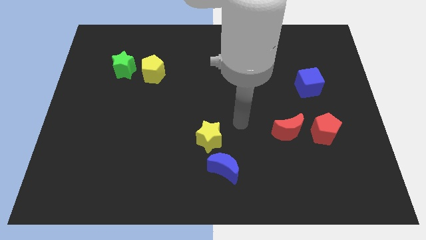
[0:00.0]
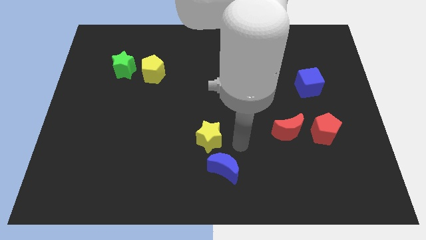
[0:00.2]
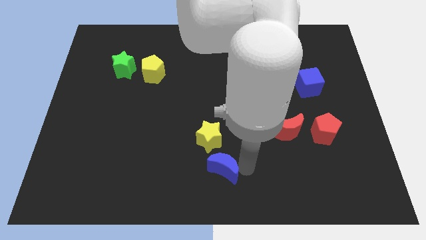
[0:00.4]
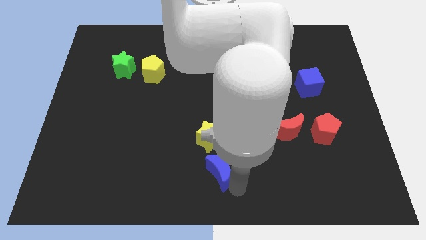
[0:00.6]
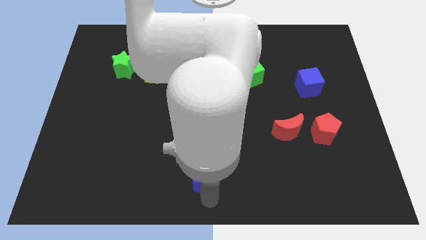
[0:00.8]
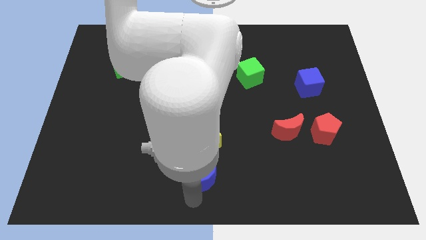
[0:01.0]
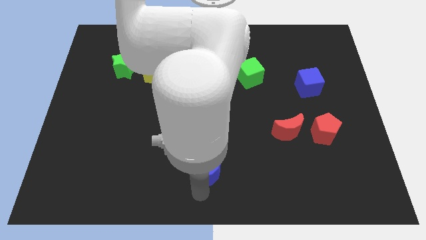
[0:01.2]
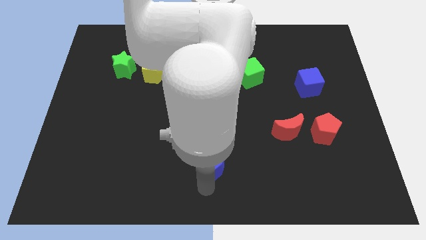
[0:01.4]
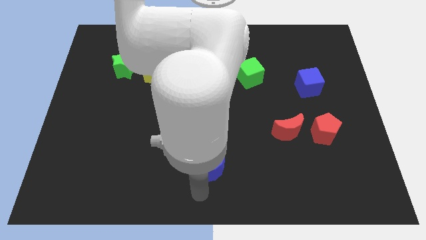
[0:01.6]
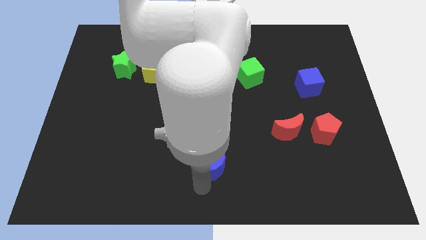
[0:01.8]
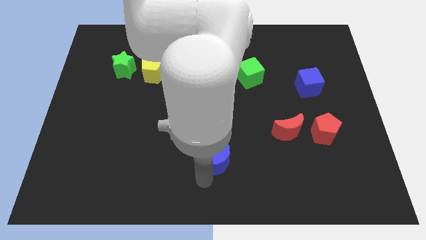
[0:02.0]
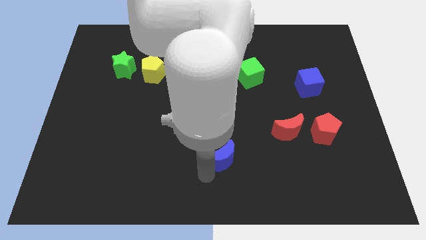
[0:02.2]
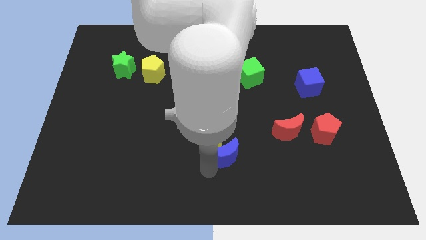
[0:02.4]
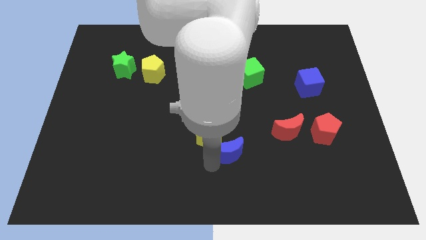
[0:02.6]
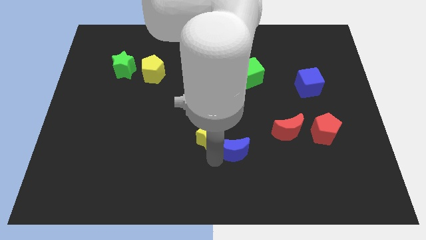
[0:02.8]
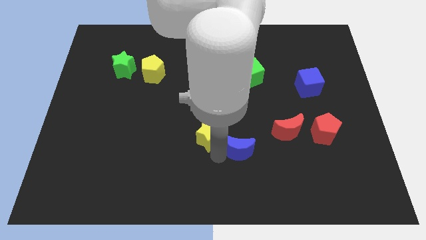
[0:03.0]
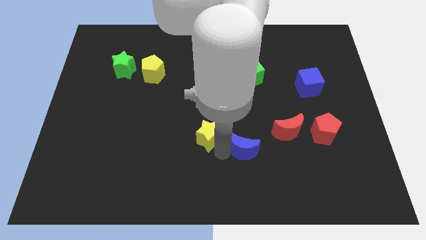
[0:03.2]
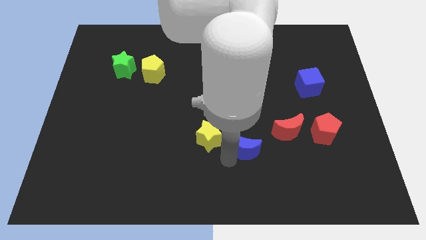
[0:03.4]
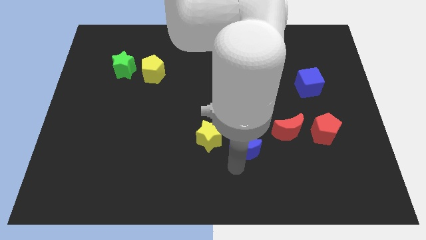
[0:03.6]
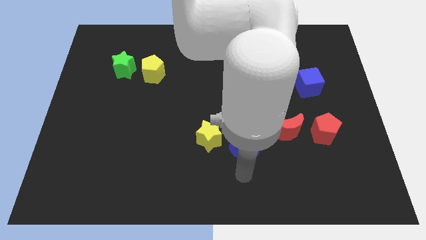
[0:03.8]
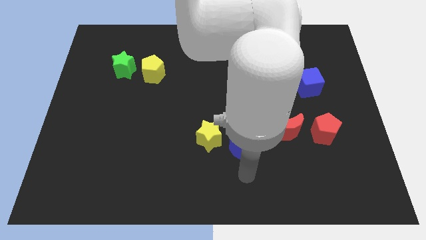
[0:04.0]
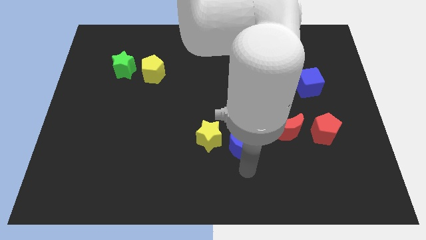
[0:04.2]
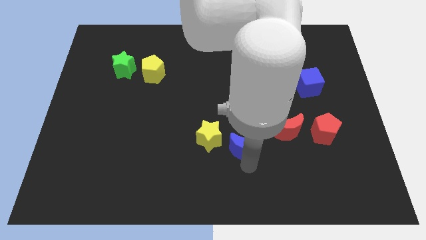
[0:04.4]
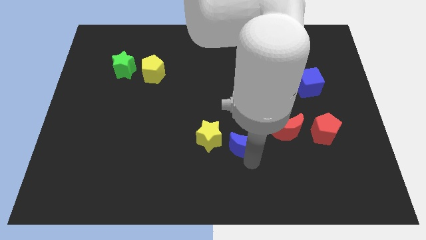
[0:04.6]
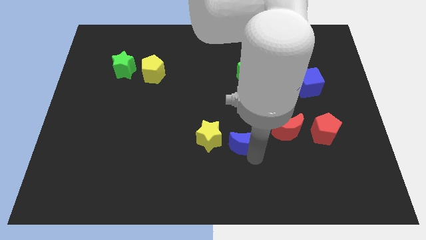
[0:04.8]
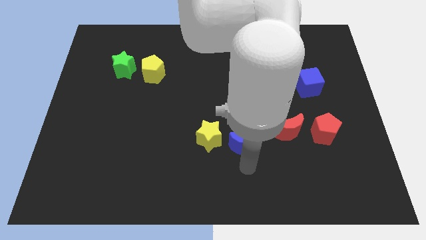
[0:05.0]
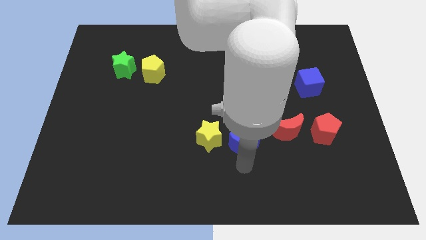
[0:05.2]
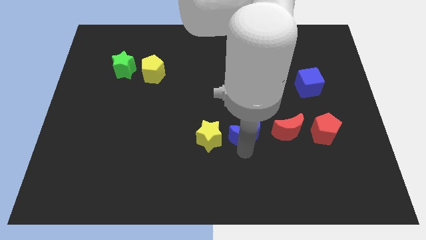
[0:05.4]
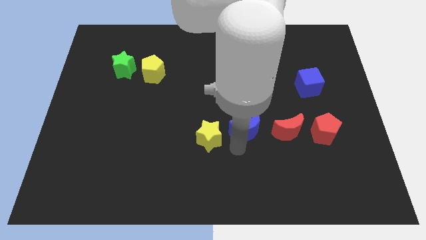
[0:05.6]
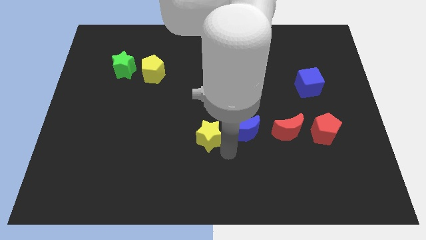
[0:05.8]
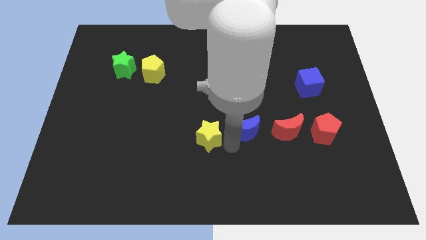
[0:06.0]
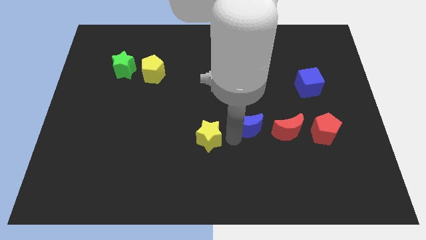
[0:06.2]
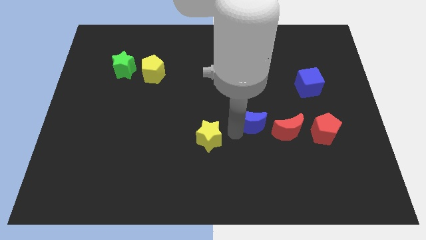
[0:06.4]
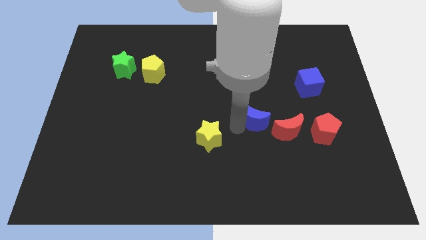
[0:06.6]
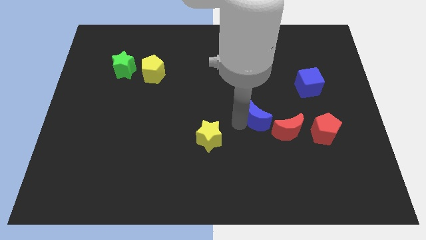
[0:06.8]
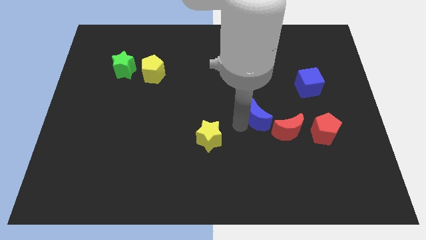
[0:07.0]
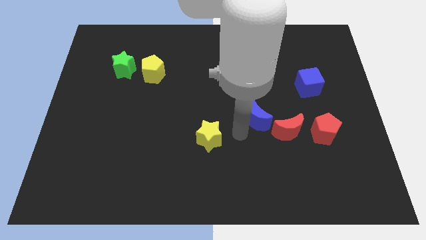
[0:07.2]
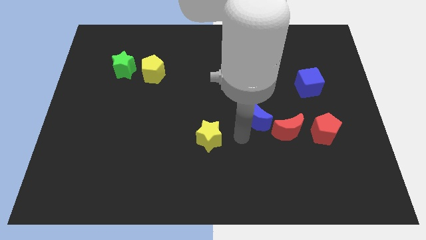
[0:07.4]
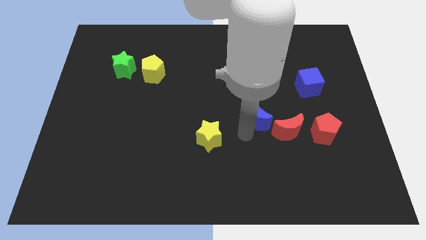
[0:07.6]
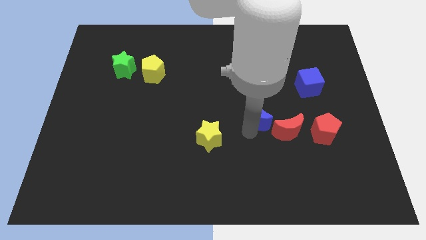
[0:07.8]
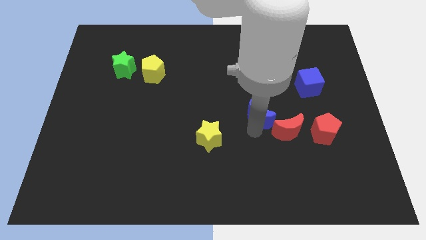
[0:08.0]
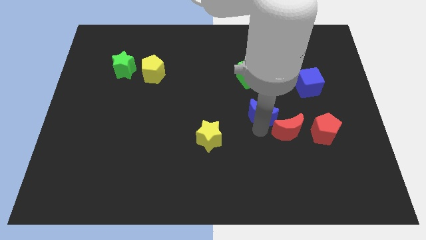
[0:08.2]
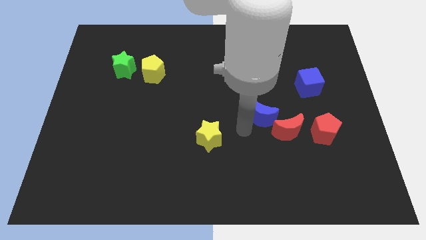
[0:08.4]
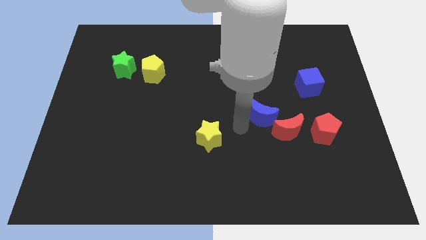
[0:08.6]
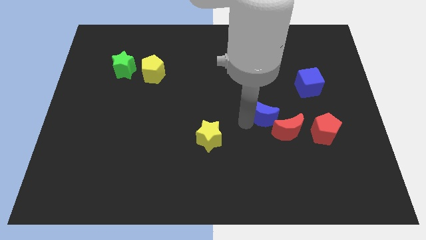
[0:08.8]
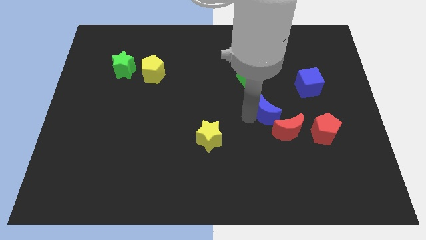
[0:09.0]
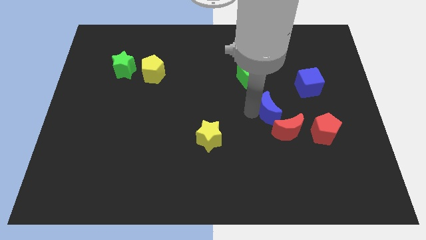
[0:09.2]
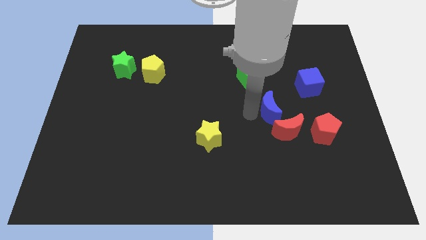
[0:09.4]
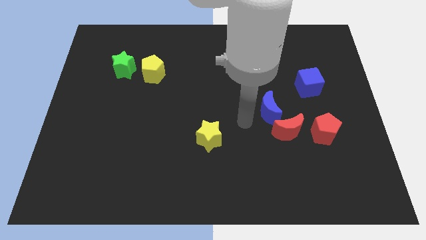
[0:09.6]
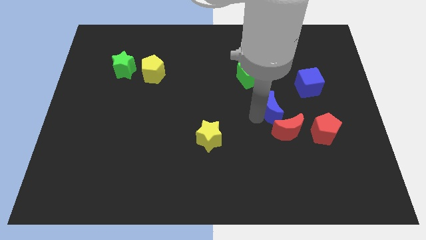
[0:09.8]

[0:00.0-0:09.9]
move the blue moon to the bottom left of the blue cube

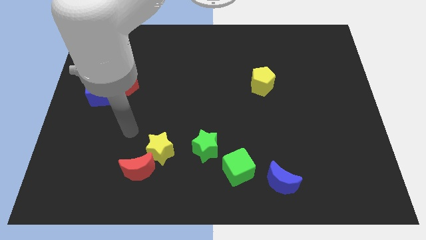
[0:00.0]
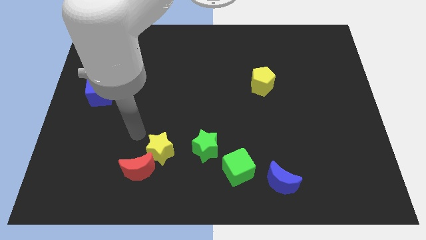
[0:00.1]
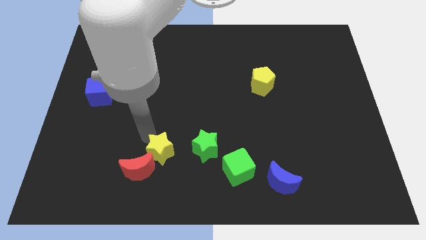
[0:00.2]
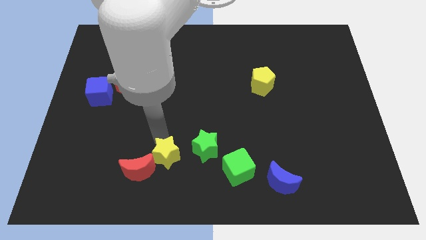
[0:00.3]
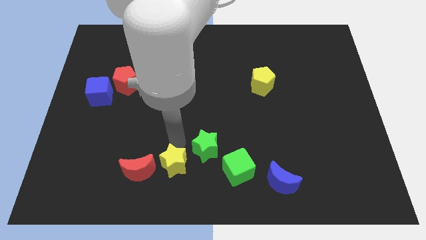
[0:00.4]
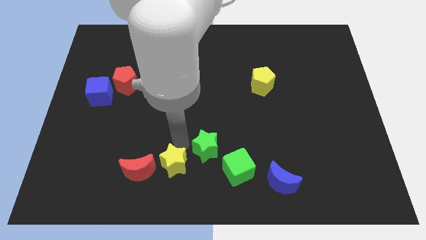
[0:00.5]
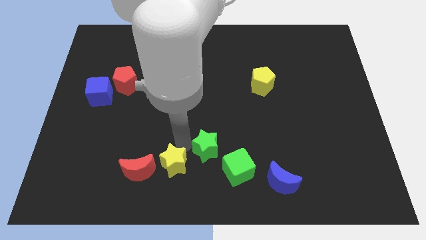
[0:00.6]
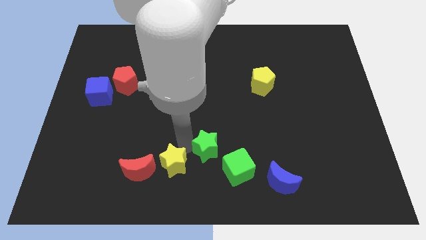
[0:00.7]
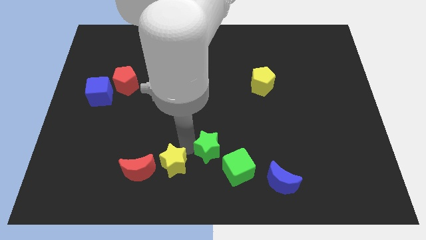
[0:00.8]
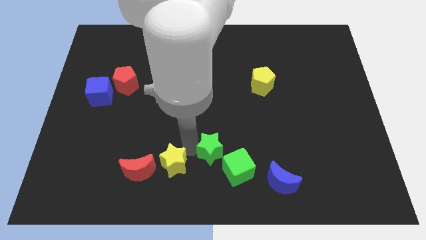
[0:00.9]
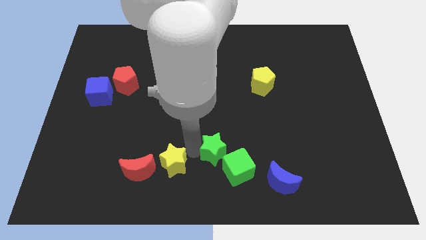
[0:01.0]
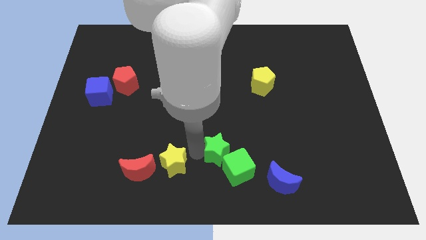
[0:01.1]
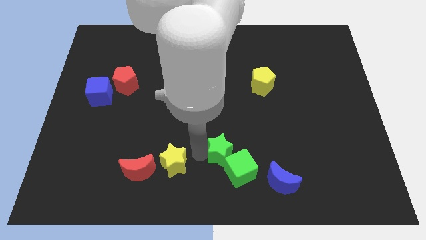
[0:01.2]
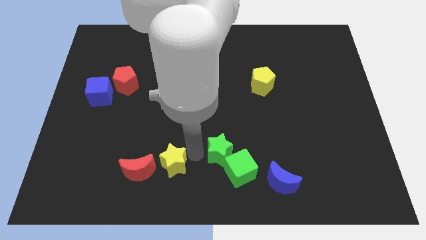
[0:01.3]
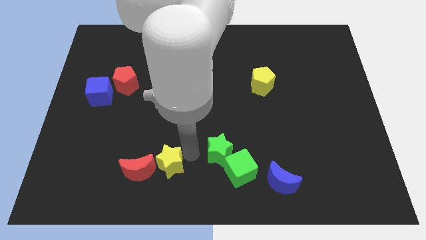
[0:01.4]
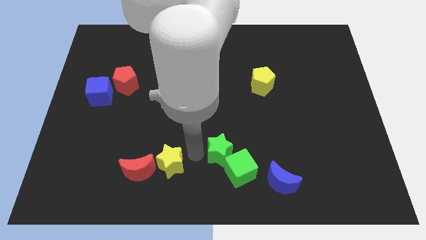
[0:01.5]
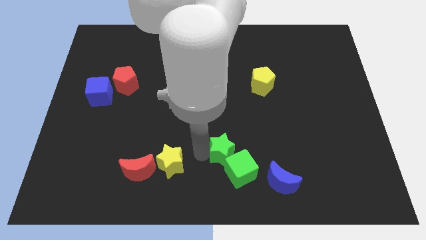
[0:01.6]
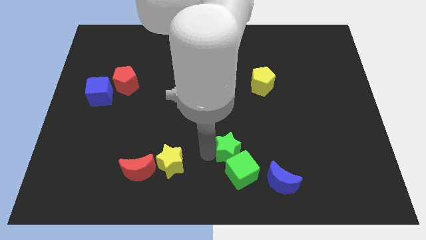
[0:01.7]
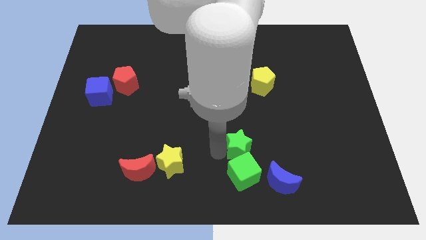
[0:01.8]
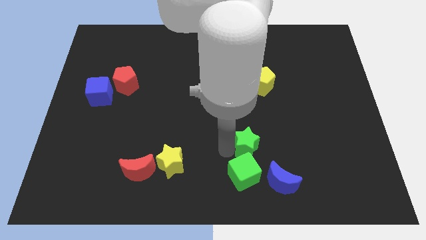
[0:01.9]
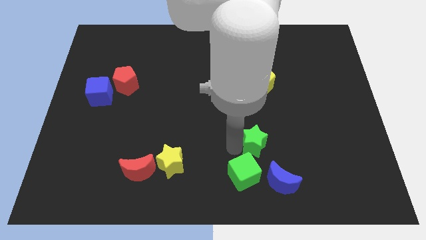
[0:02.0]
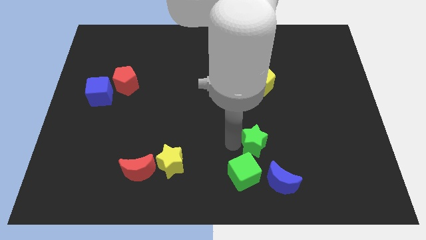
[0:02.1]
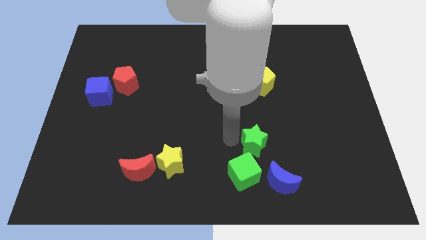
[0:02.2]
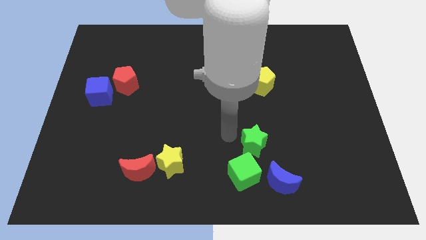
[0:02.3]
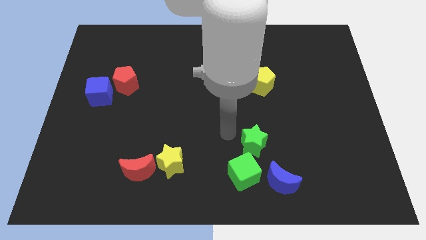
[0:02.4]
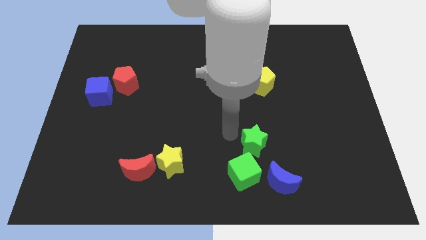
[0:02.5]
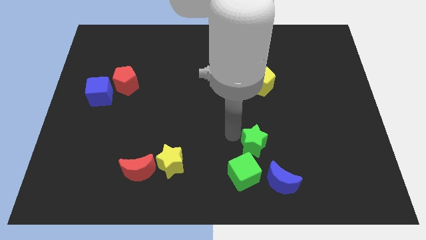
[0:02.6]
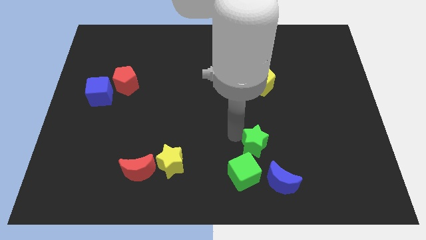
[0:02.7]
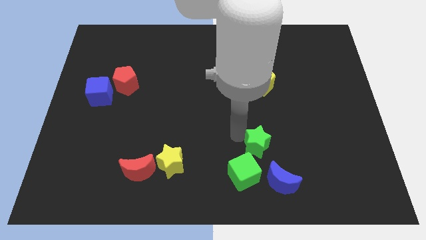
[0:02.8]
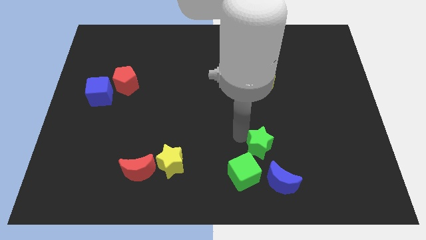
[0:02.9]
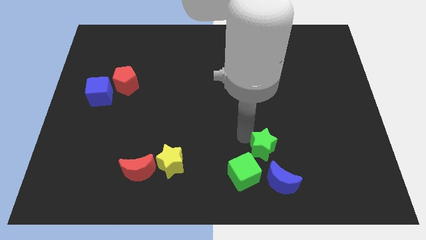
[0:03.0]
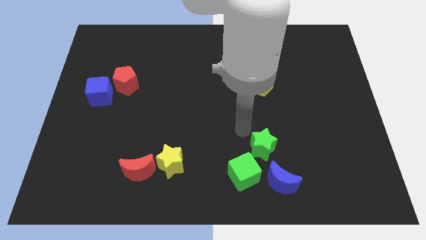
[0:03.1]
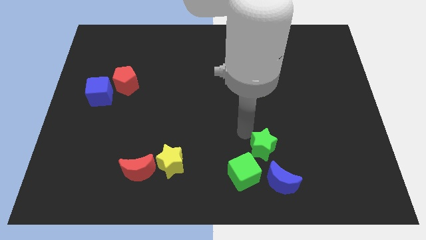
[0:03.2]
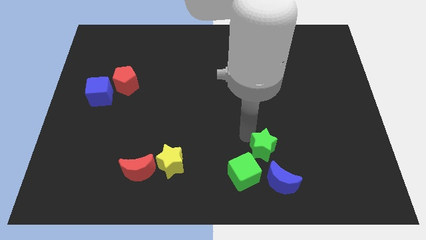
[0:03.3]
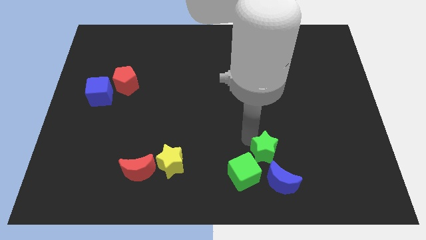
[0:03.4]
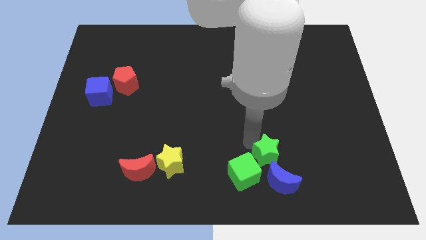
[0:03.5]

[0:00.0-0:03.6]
slide the green star to the right of the green cube
